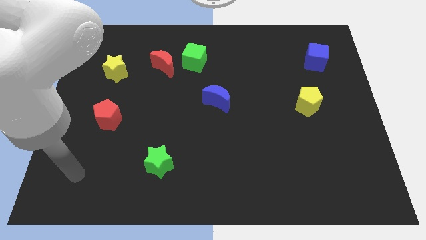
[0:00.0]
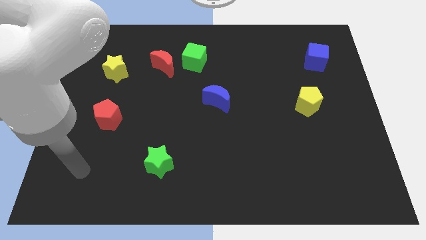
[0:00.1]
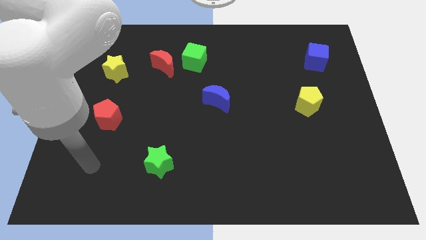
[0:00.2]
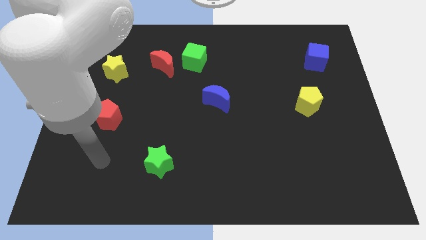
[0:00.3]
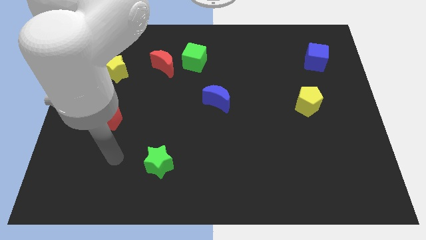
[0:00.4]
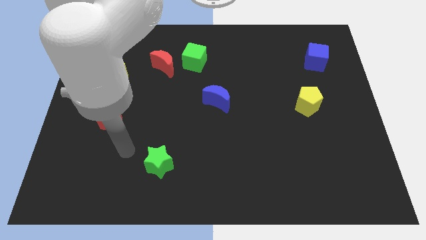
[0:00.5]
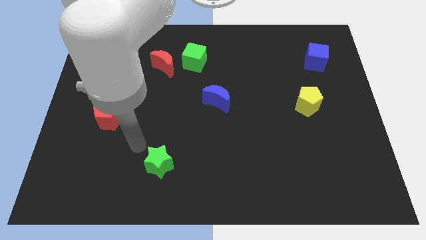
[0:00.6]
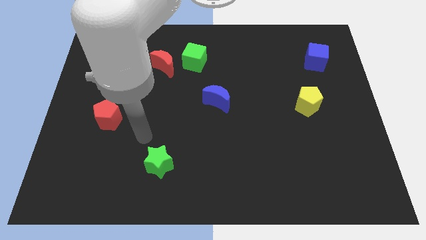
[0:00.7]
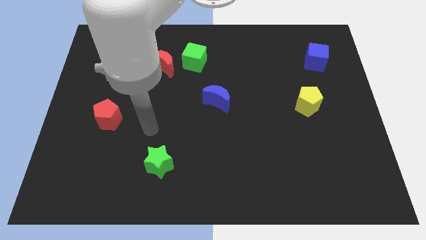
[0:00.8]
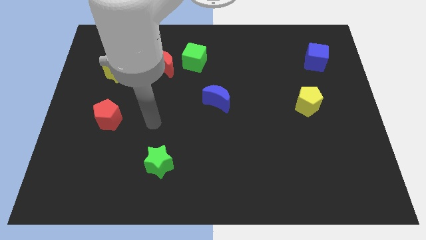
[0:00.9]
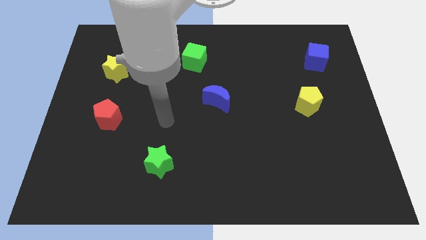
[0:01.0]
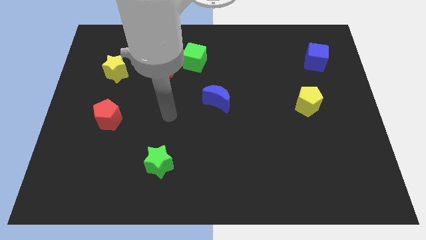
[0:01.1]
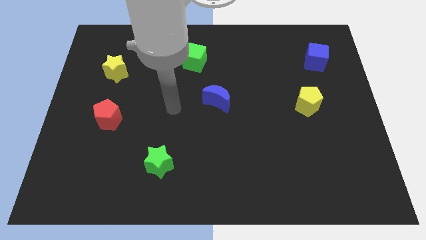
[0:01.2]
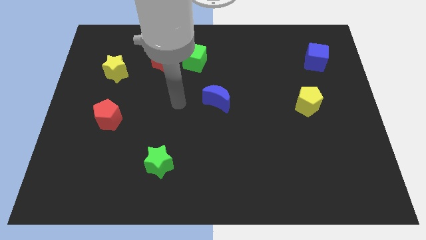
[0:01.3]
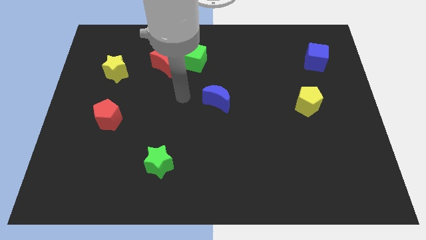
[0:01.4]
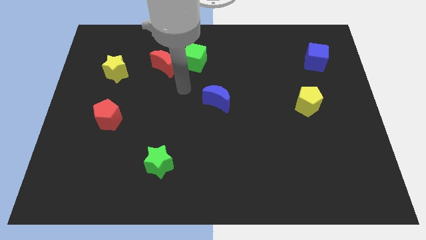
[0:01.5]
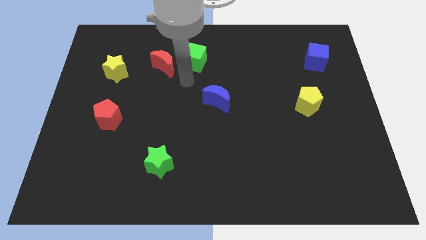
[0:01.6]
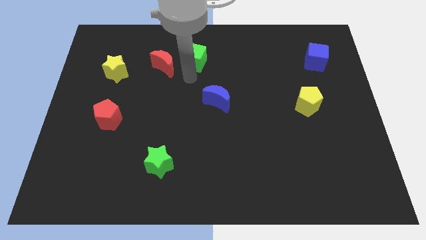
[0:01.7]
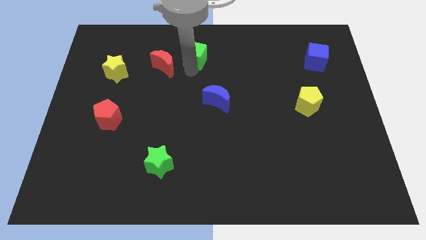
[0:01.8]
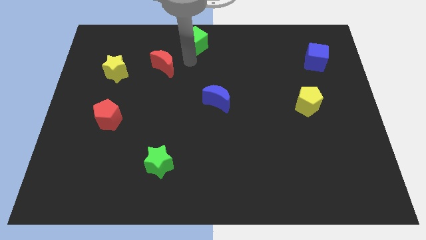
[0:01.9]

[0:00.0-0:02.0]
separate the red moon from the green cube

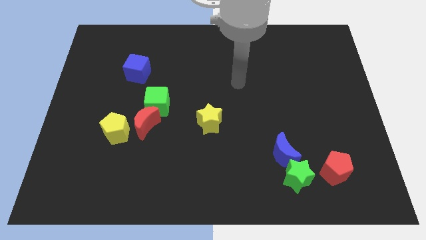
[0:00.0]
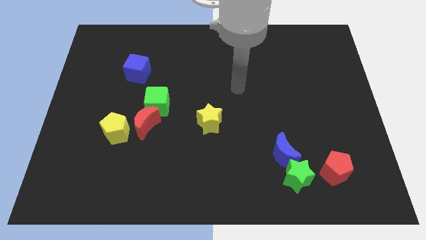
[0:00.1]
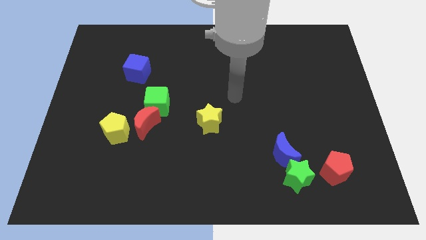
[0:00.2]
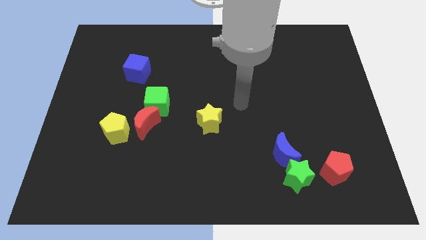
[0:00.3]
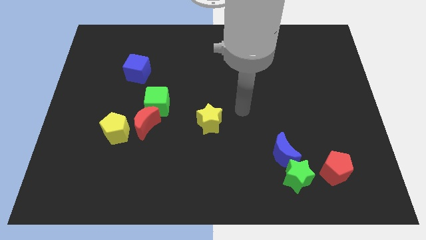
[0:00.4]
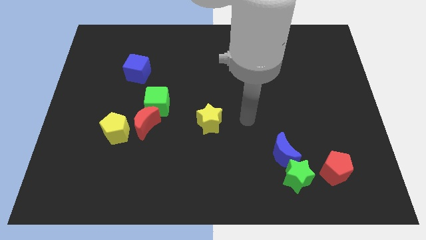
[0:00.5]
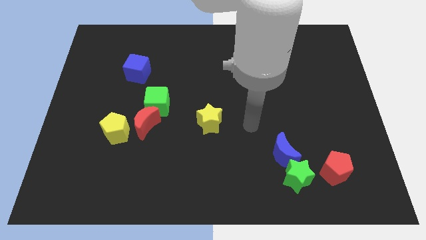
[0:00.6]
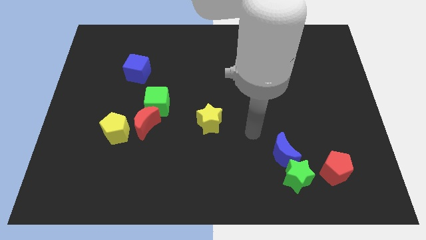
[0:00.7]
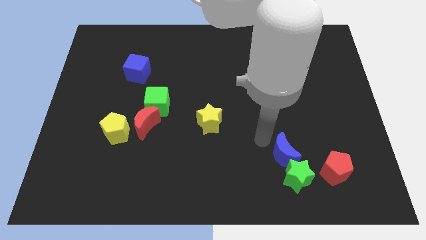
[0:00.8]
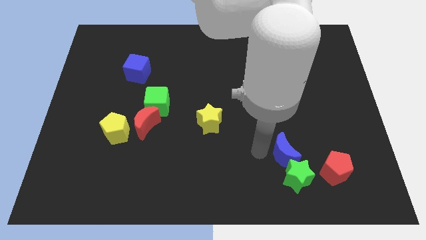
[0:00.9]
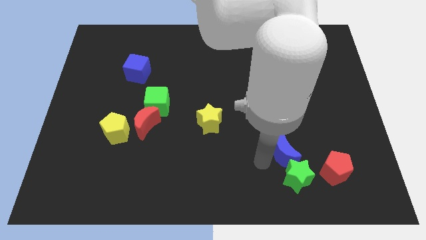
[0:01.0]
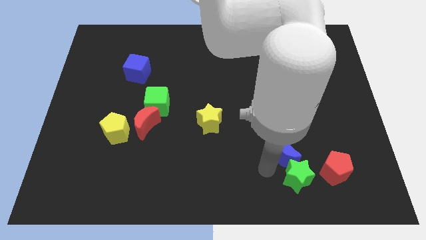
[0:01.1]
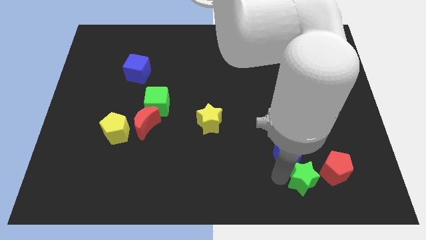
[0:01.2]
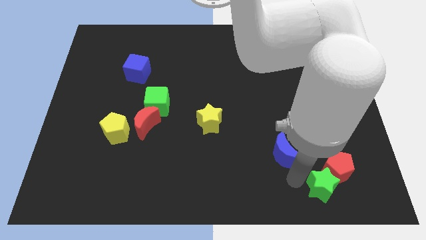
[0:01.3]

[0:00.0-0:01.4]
separate the blue moon from the green star

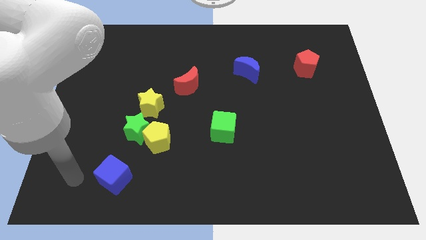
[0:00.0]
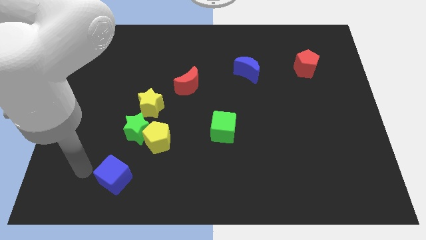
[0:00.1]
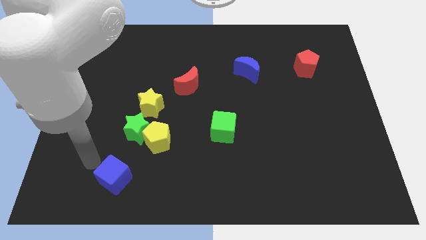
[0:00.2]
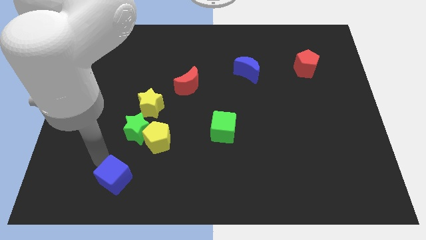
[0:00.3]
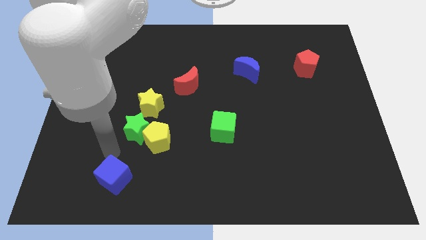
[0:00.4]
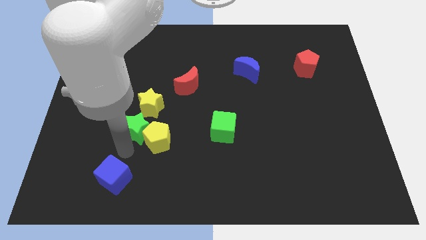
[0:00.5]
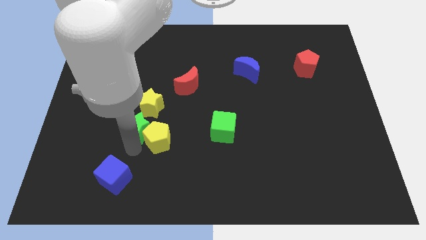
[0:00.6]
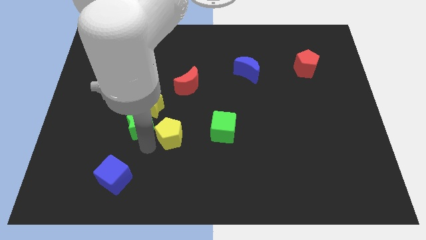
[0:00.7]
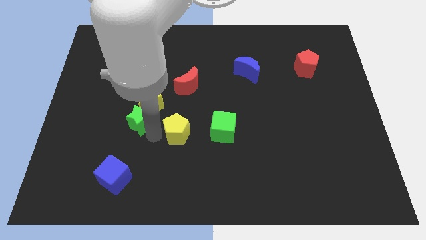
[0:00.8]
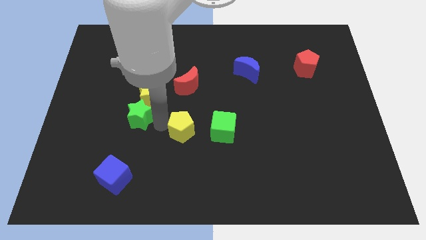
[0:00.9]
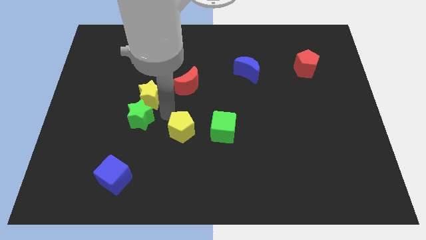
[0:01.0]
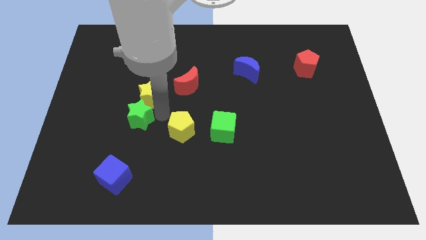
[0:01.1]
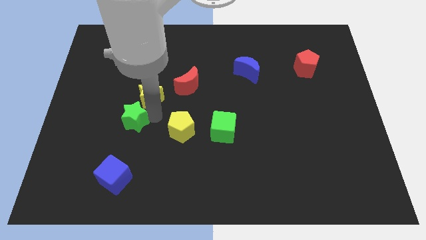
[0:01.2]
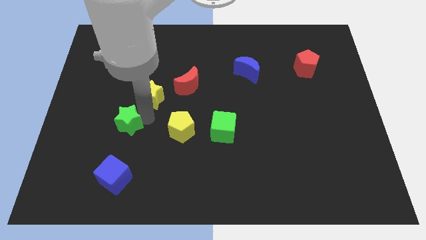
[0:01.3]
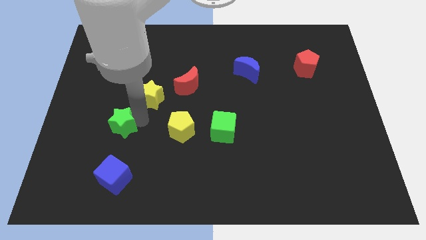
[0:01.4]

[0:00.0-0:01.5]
separate the green star from the yellow pentagon and yellow star

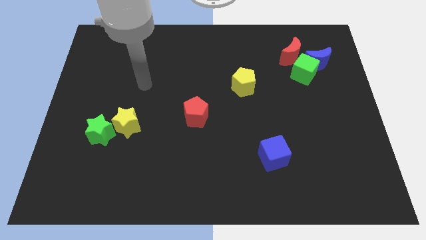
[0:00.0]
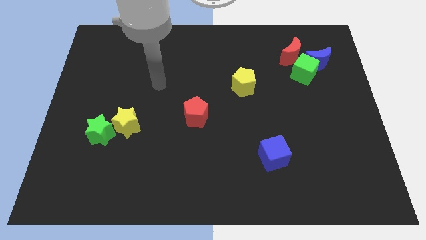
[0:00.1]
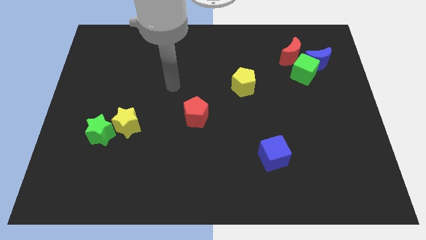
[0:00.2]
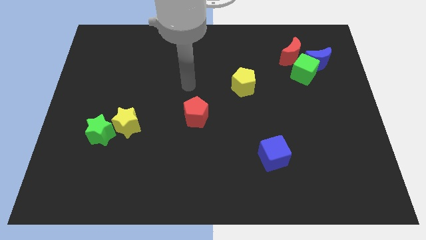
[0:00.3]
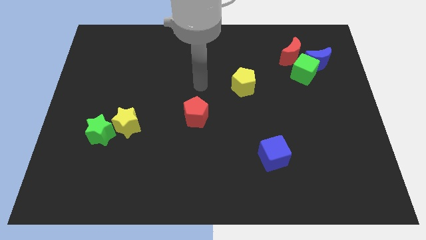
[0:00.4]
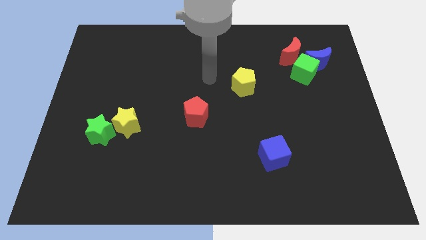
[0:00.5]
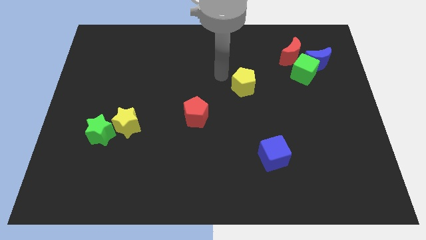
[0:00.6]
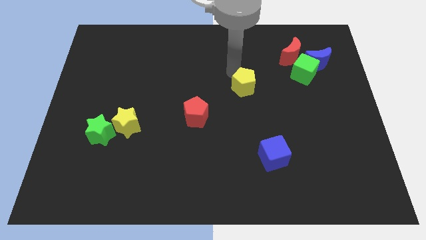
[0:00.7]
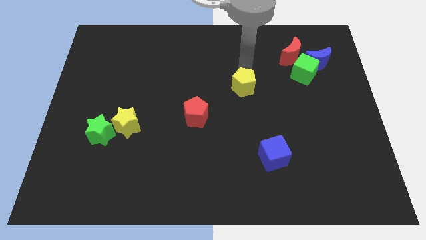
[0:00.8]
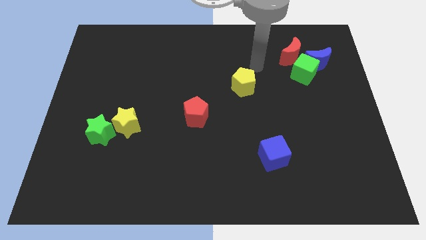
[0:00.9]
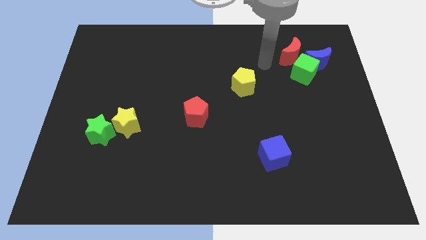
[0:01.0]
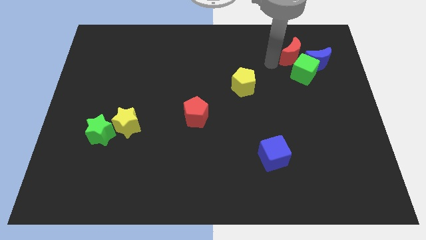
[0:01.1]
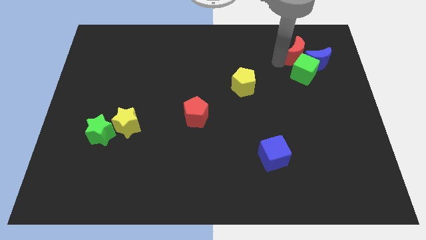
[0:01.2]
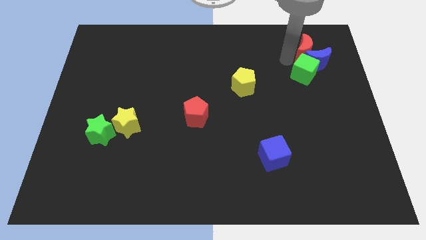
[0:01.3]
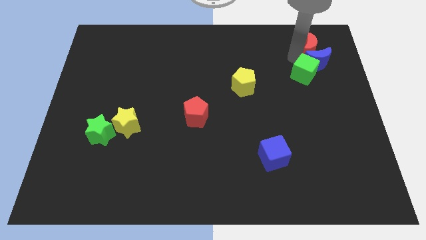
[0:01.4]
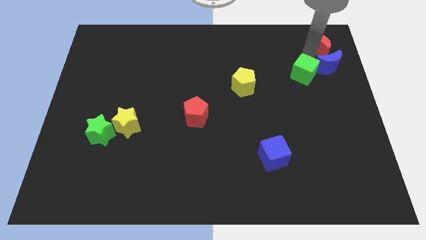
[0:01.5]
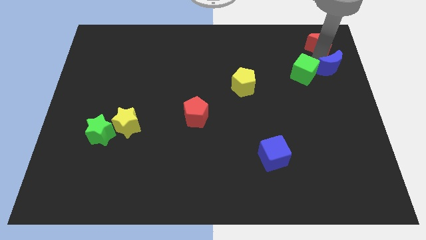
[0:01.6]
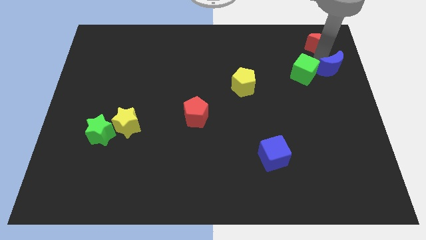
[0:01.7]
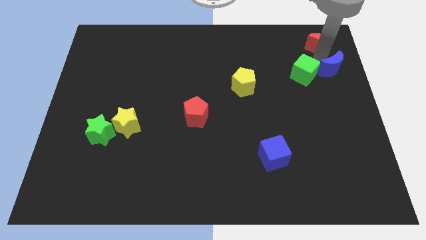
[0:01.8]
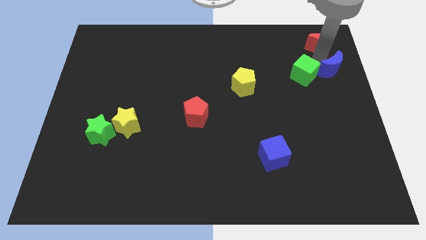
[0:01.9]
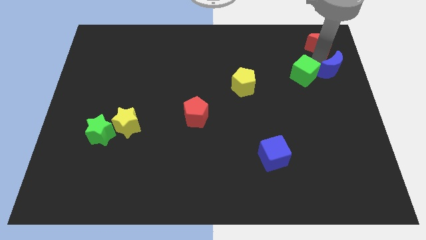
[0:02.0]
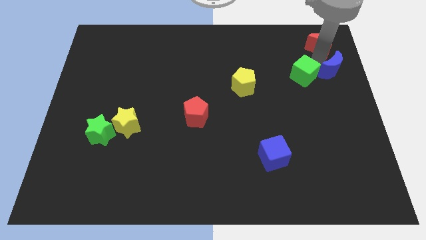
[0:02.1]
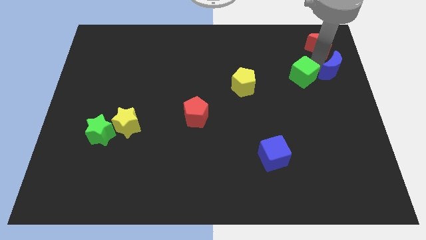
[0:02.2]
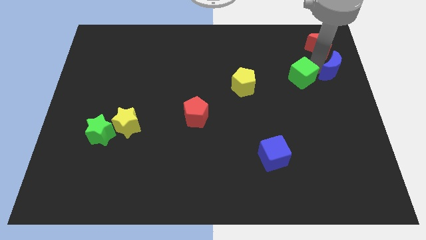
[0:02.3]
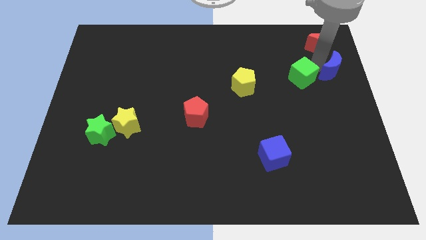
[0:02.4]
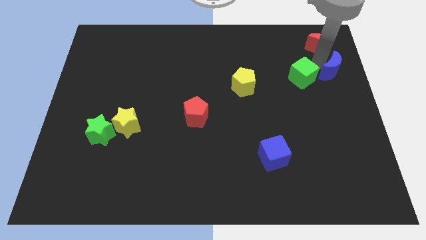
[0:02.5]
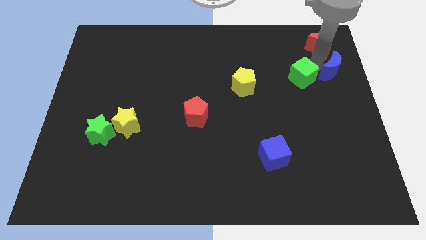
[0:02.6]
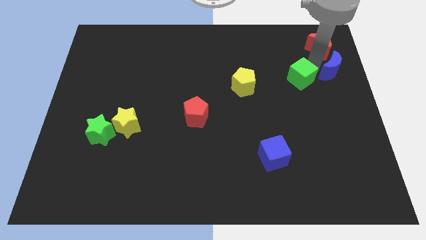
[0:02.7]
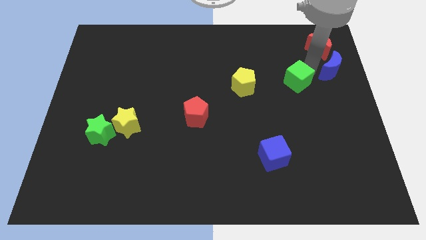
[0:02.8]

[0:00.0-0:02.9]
separate the green cube from the blue moon and red moon

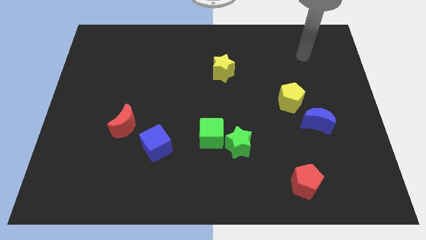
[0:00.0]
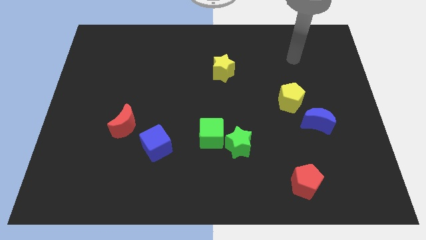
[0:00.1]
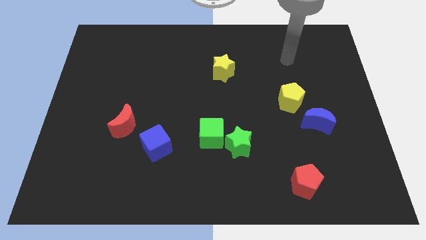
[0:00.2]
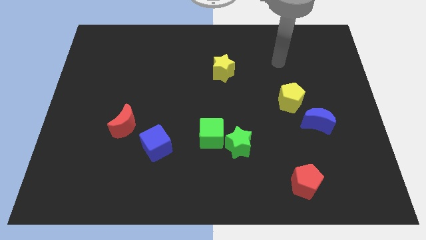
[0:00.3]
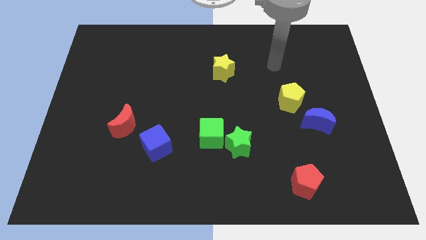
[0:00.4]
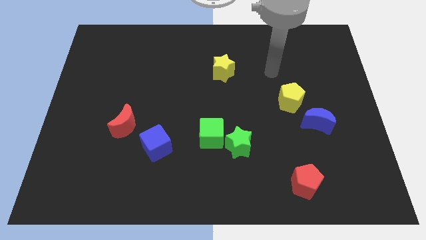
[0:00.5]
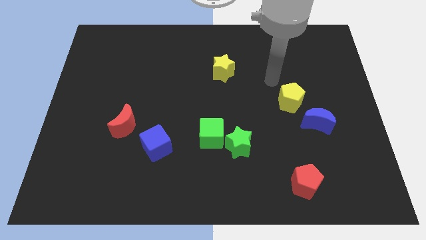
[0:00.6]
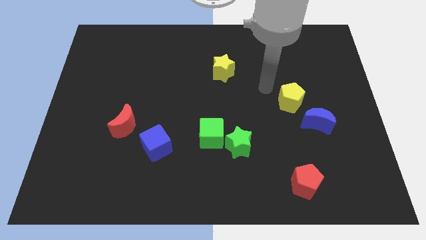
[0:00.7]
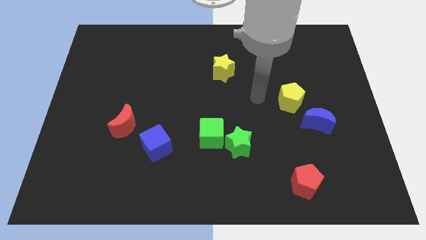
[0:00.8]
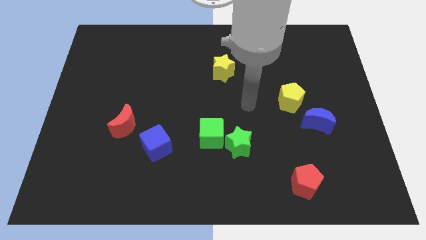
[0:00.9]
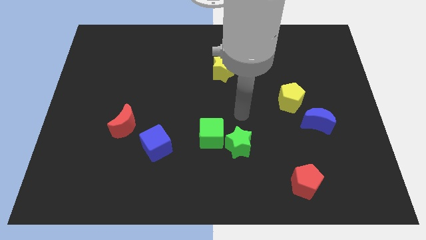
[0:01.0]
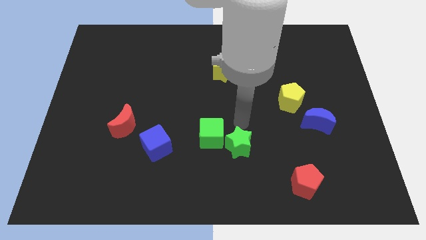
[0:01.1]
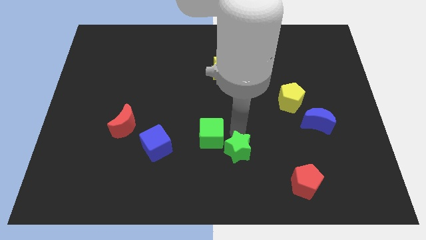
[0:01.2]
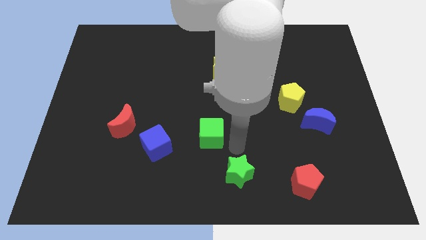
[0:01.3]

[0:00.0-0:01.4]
move the green cube away from the green star

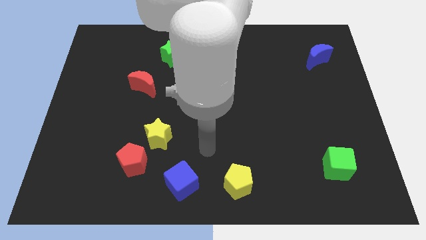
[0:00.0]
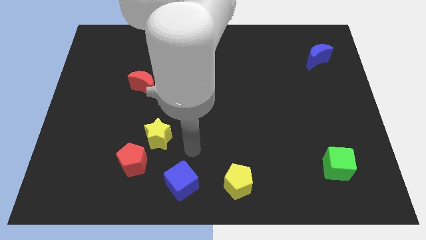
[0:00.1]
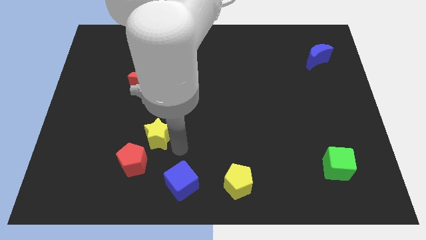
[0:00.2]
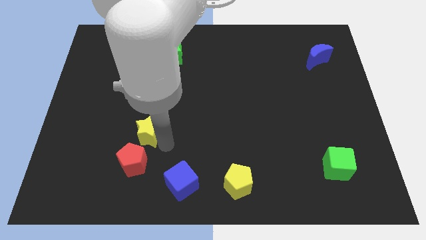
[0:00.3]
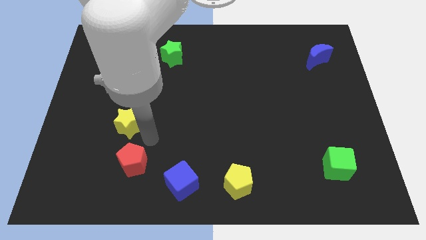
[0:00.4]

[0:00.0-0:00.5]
pull the red pentagon apart from the yellow star
